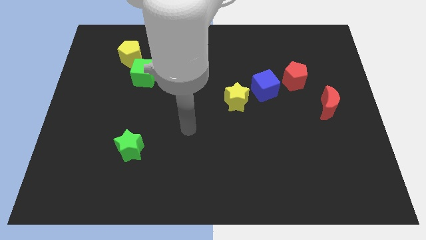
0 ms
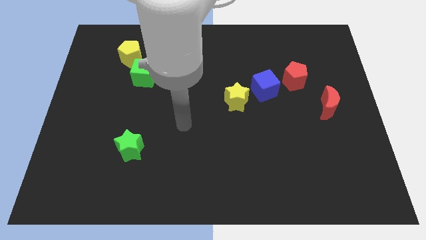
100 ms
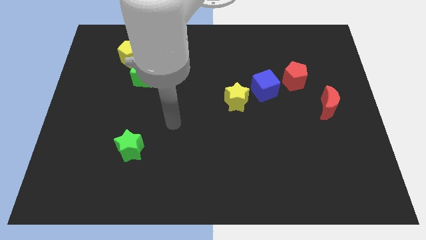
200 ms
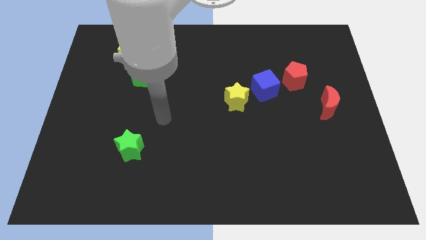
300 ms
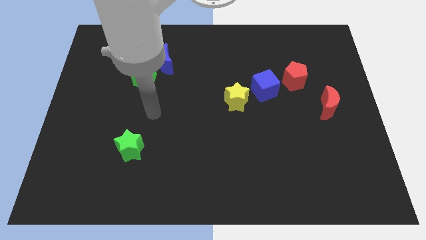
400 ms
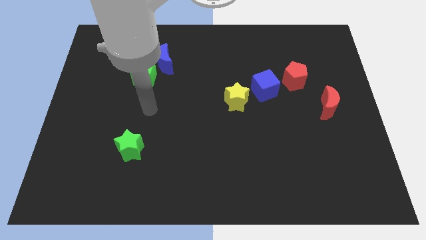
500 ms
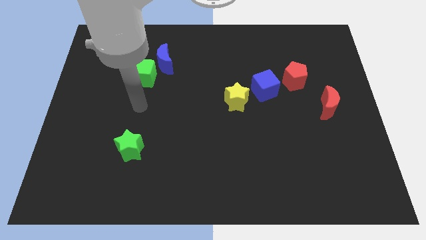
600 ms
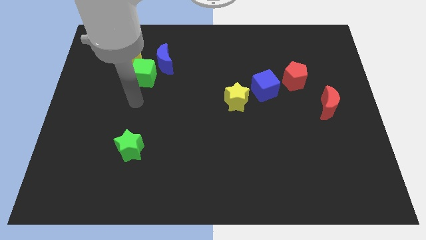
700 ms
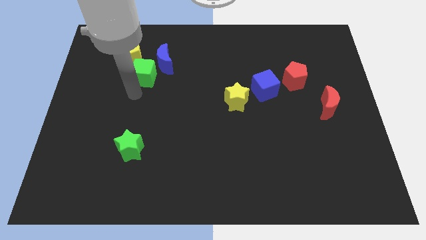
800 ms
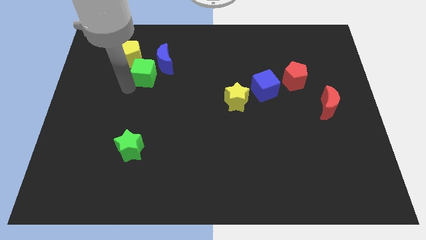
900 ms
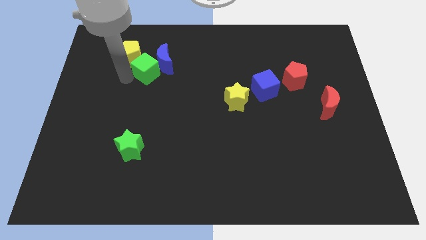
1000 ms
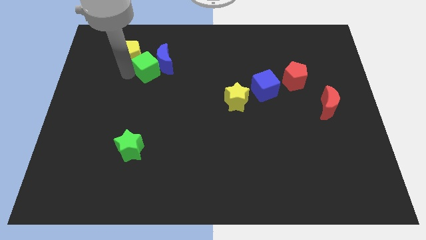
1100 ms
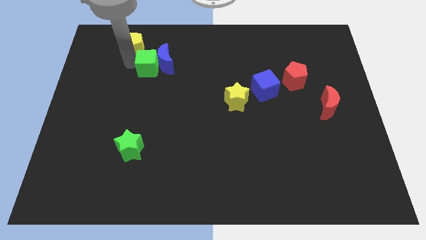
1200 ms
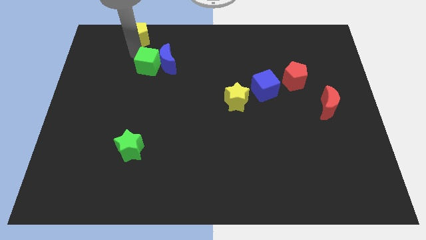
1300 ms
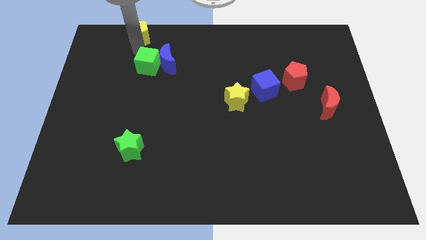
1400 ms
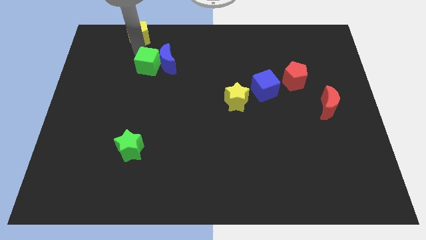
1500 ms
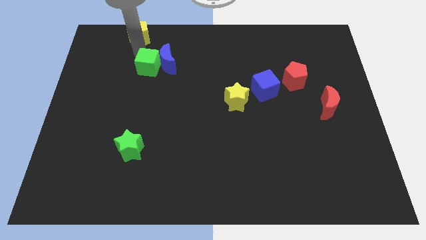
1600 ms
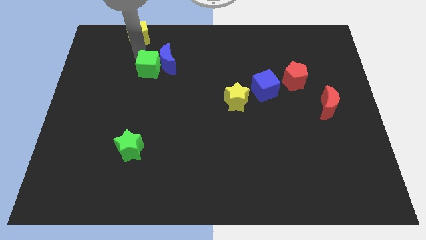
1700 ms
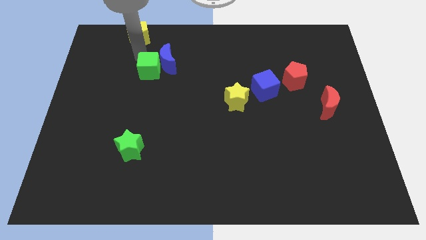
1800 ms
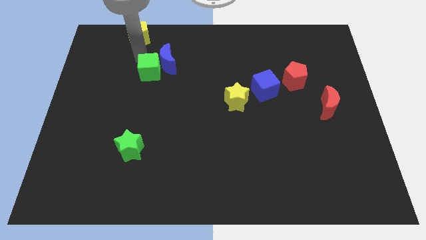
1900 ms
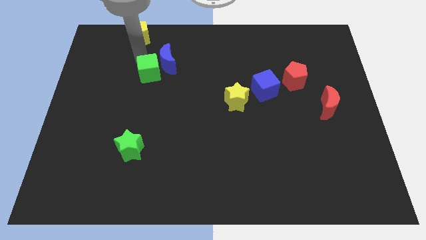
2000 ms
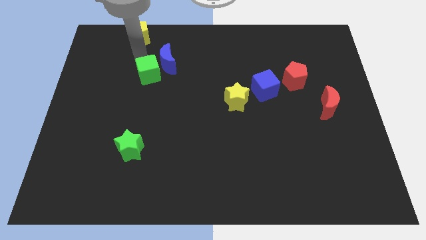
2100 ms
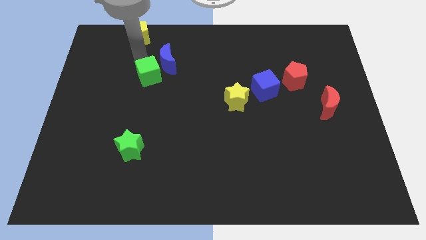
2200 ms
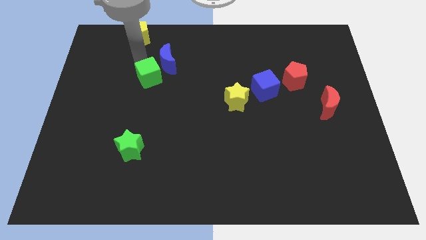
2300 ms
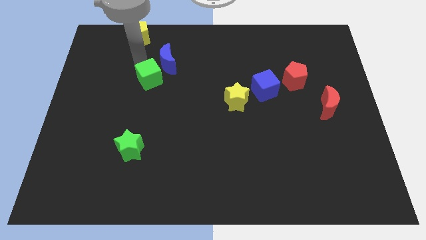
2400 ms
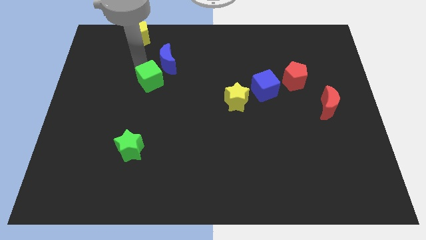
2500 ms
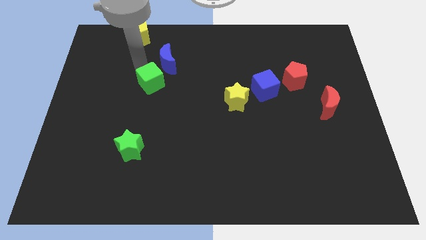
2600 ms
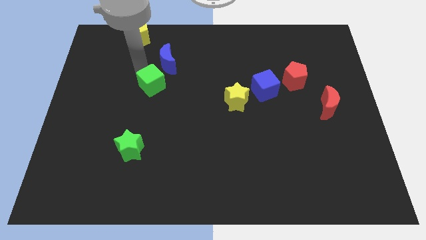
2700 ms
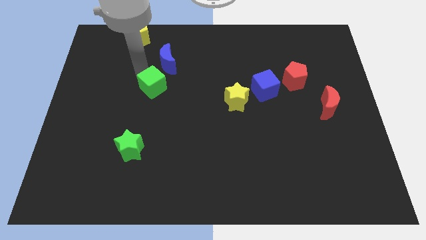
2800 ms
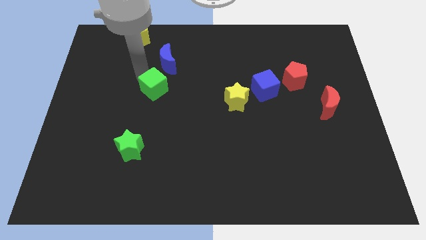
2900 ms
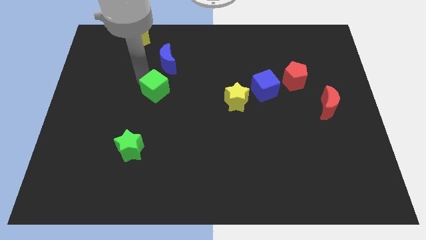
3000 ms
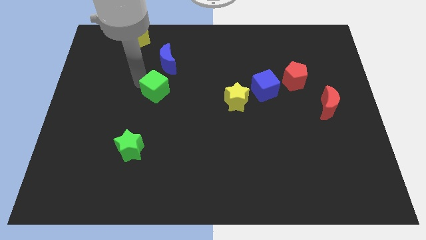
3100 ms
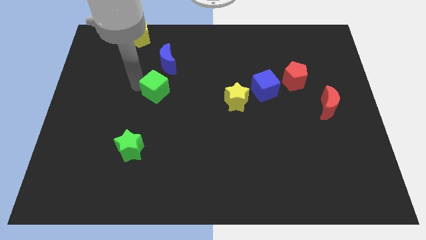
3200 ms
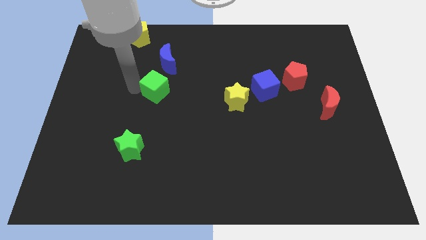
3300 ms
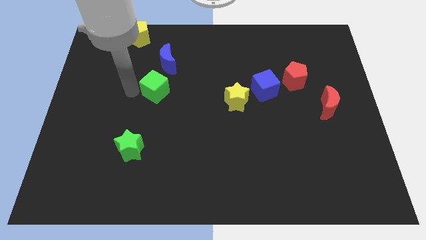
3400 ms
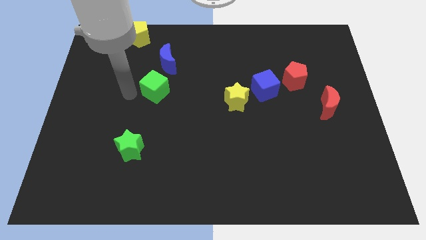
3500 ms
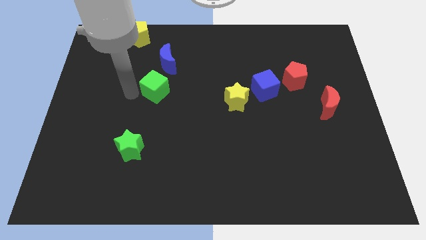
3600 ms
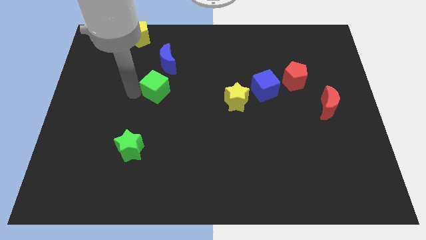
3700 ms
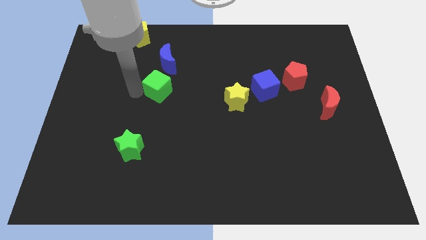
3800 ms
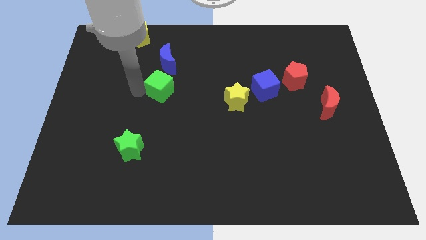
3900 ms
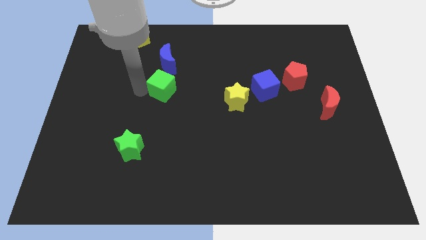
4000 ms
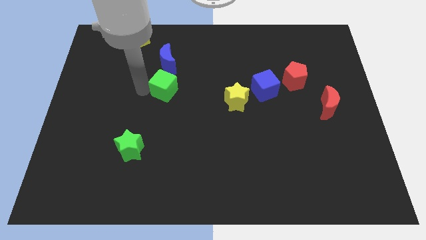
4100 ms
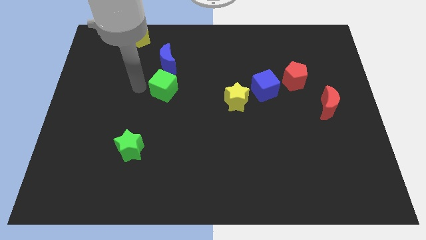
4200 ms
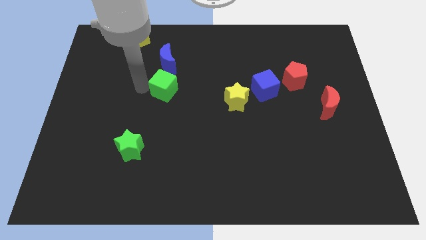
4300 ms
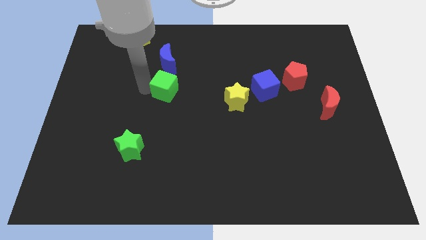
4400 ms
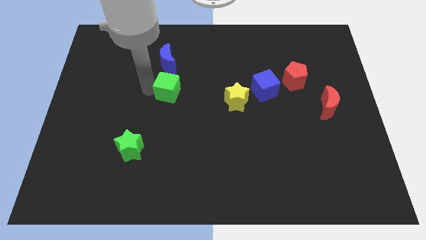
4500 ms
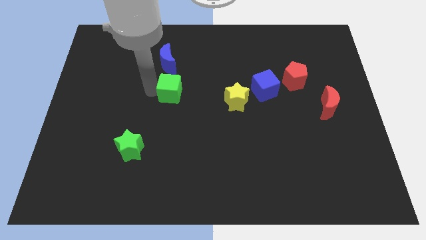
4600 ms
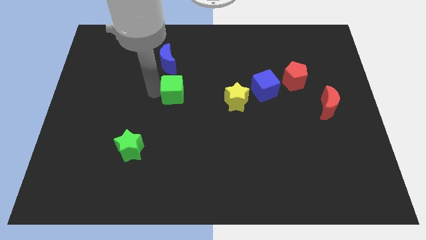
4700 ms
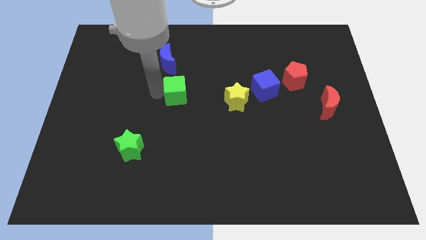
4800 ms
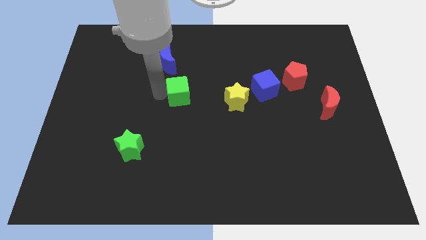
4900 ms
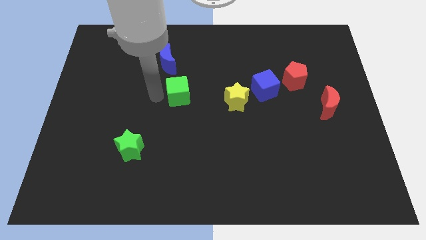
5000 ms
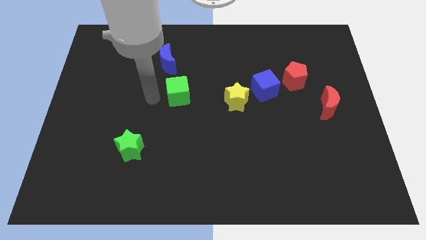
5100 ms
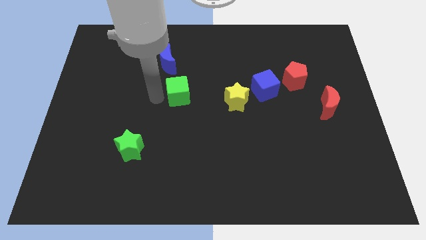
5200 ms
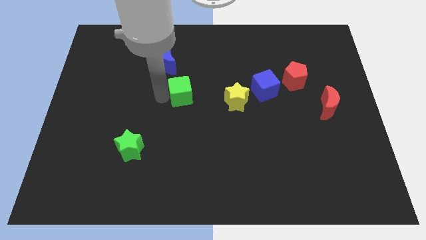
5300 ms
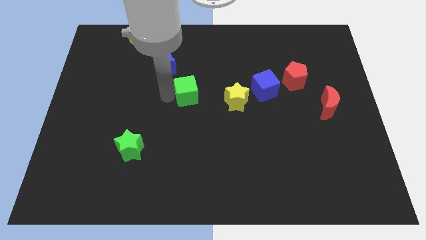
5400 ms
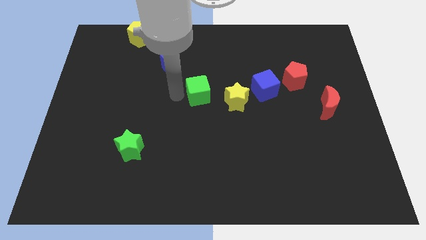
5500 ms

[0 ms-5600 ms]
push the green cube to the left of the blue cube

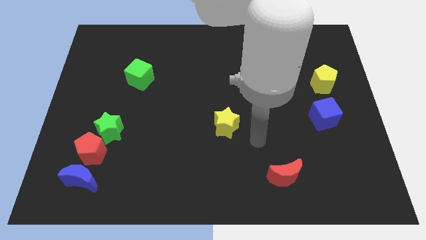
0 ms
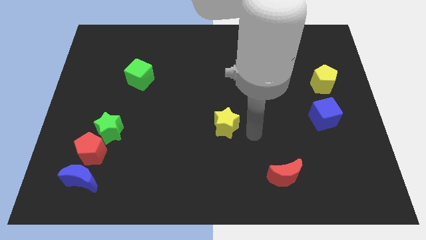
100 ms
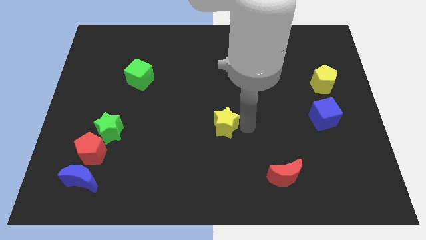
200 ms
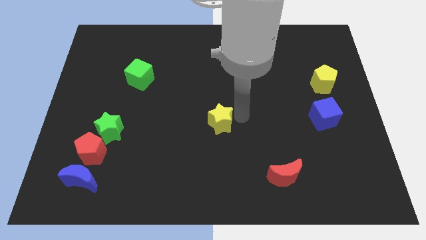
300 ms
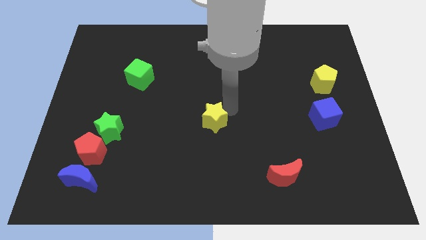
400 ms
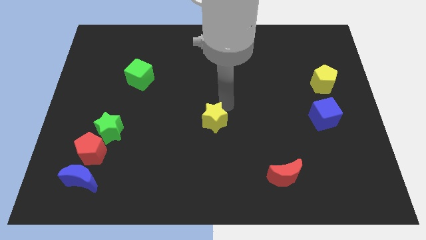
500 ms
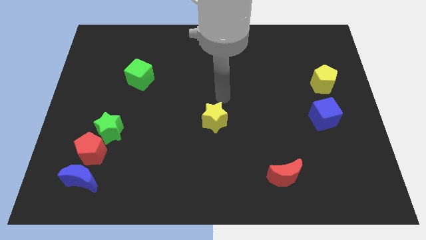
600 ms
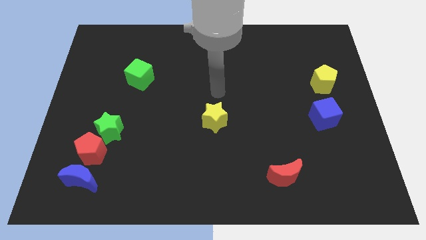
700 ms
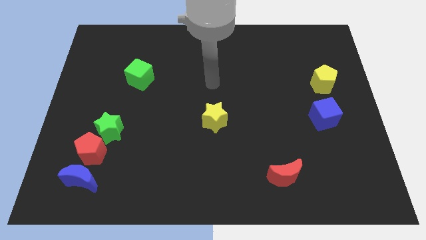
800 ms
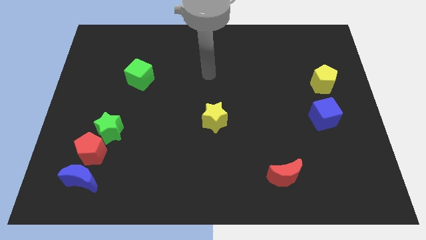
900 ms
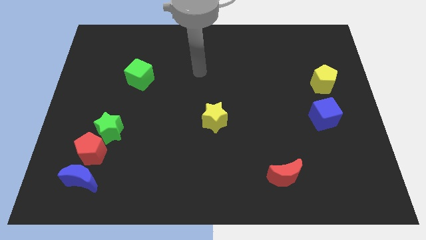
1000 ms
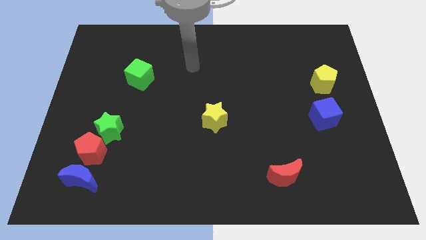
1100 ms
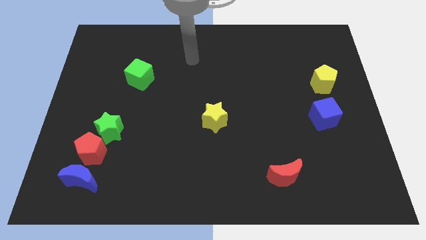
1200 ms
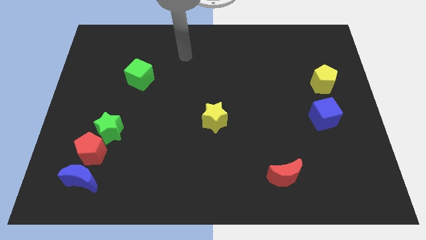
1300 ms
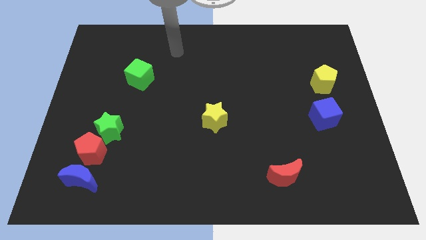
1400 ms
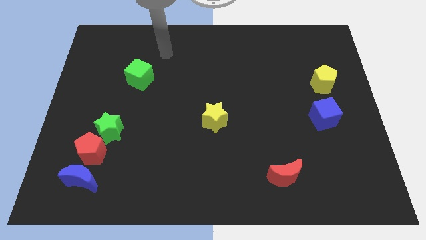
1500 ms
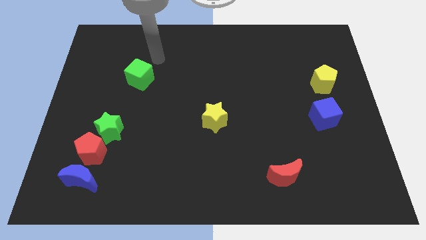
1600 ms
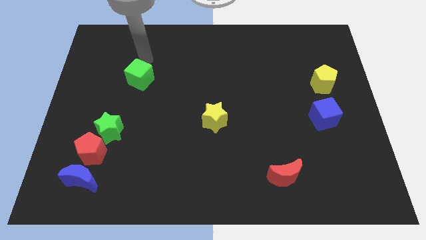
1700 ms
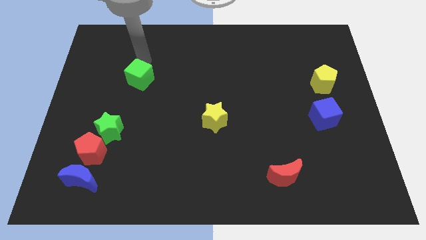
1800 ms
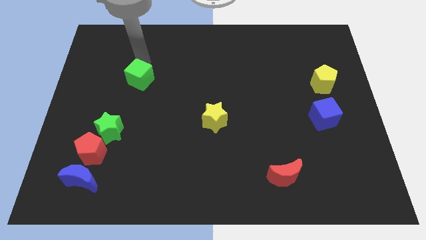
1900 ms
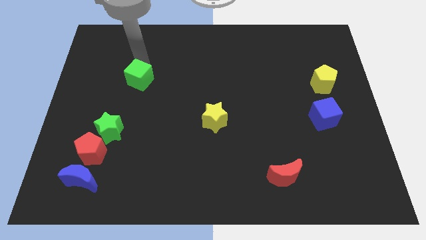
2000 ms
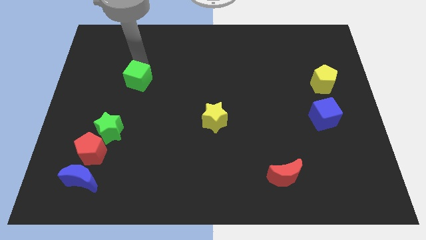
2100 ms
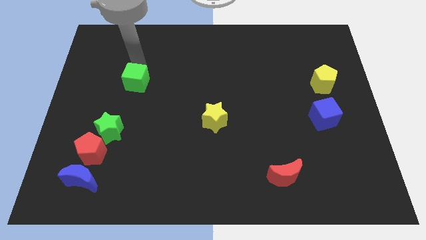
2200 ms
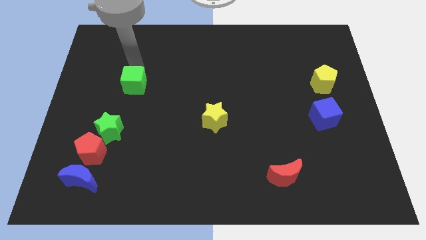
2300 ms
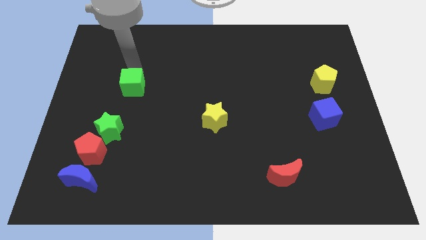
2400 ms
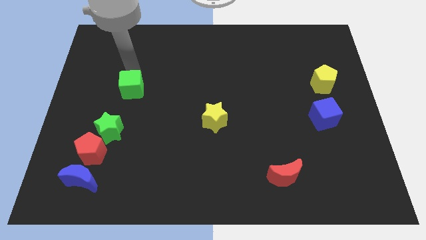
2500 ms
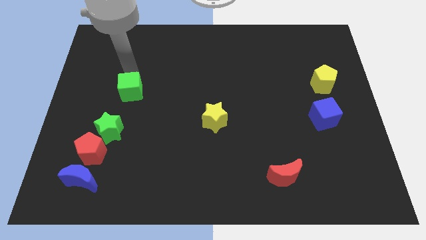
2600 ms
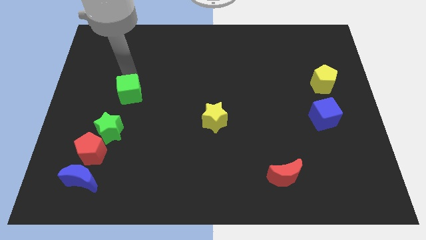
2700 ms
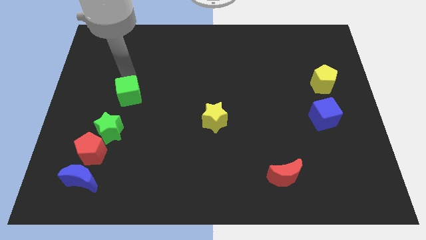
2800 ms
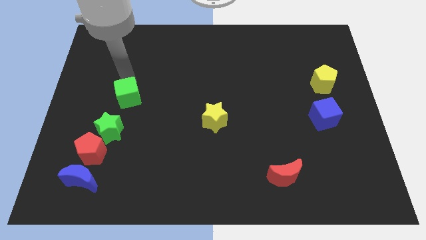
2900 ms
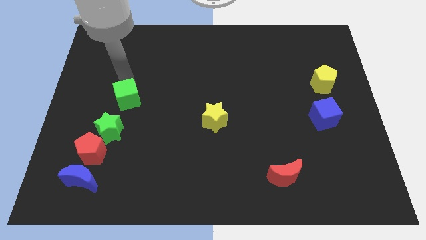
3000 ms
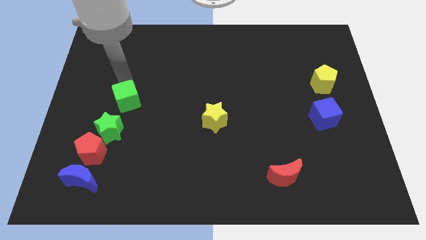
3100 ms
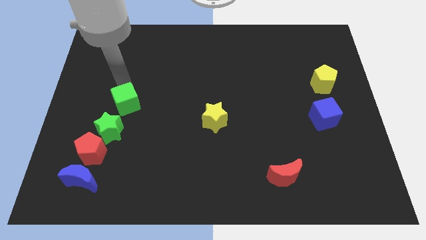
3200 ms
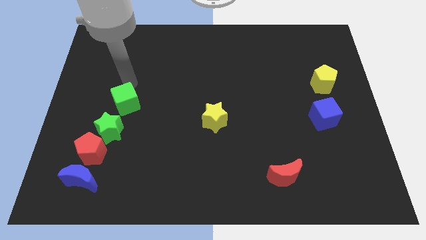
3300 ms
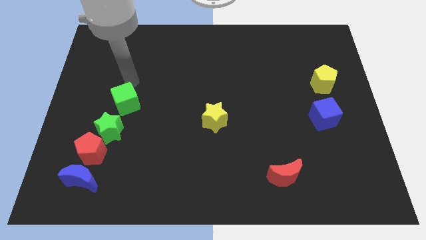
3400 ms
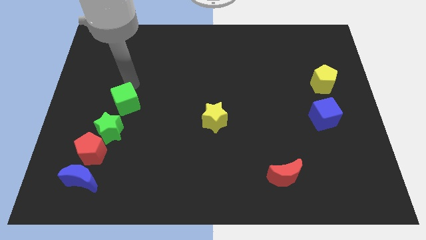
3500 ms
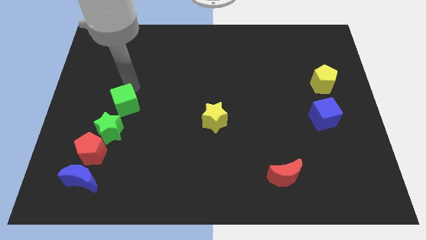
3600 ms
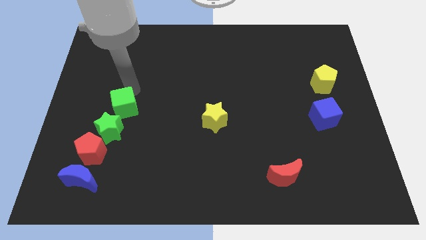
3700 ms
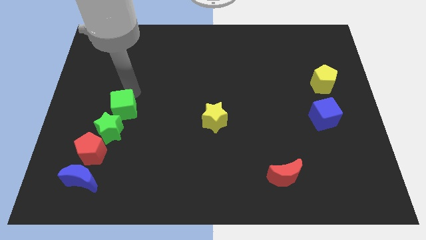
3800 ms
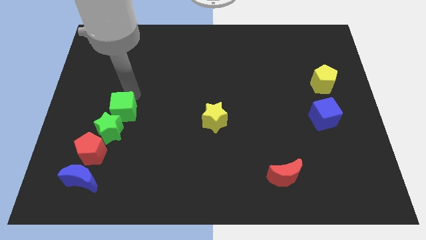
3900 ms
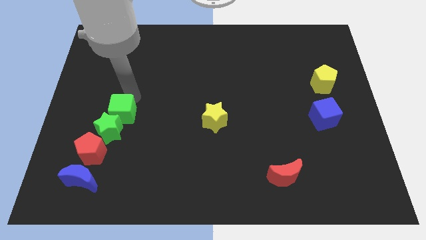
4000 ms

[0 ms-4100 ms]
move the green cube diagonally up and to the right of the red pentagon
